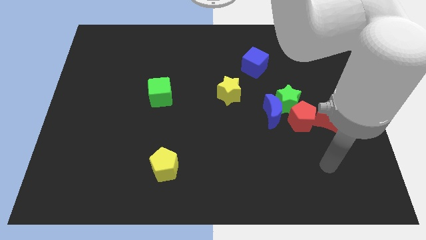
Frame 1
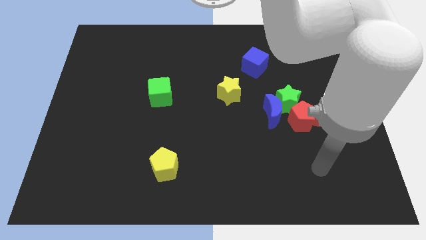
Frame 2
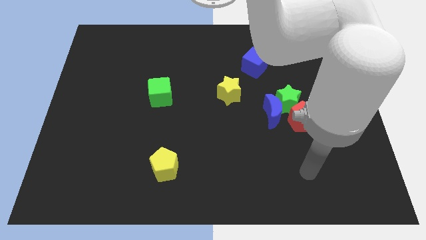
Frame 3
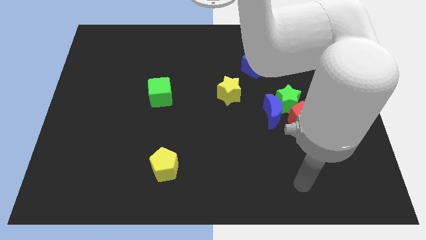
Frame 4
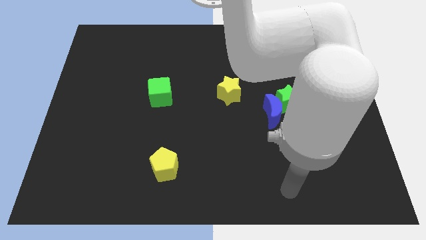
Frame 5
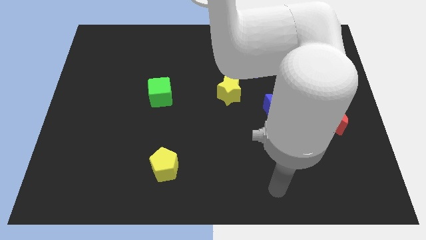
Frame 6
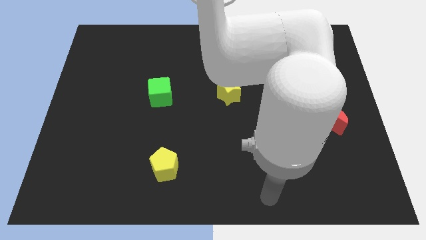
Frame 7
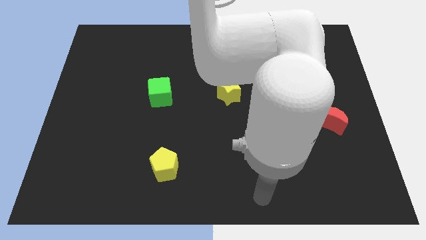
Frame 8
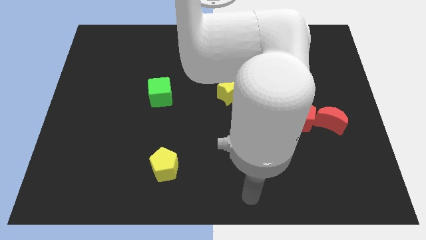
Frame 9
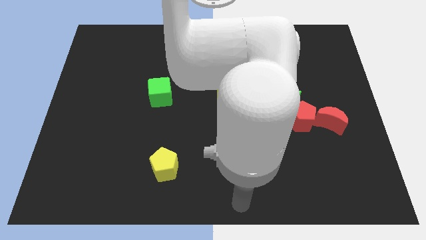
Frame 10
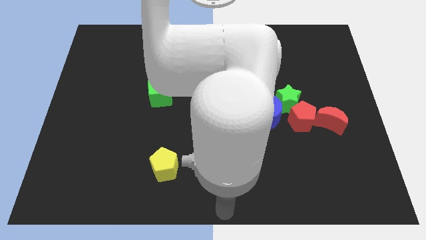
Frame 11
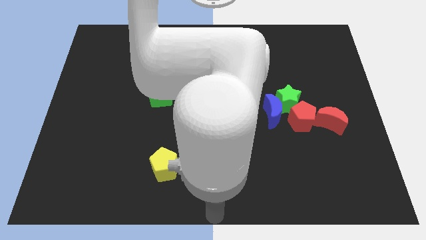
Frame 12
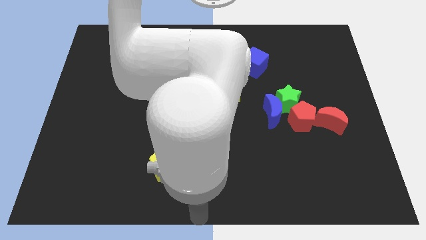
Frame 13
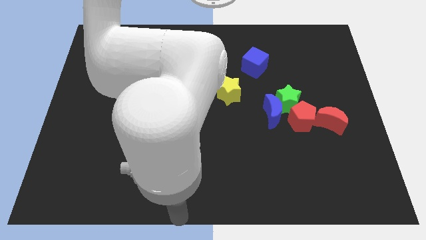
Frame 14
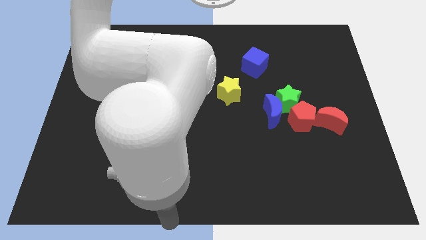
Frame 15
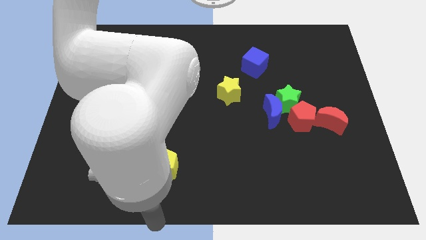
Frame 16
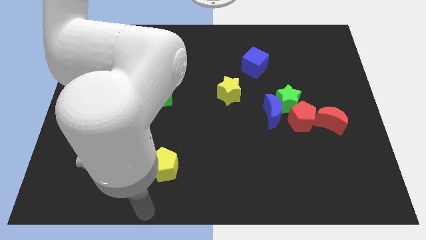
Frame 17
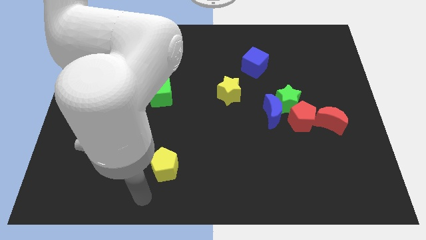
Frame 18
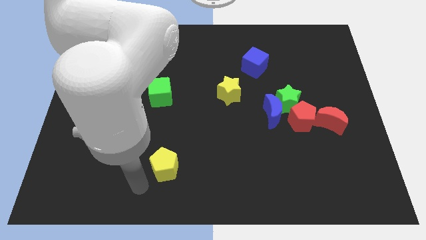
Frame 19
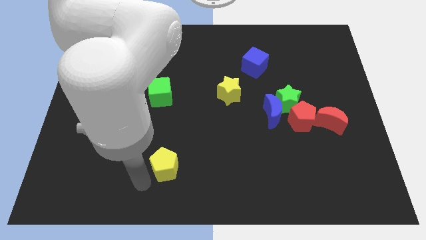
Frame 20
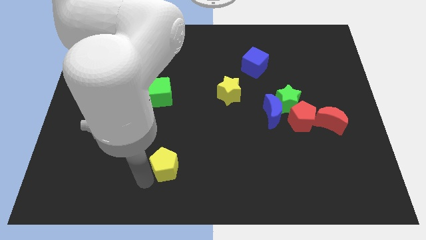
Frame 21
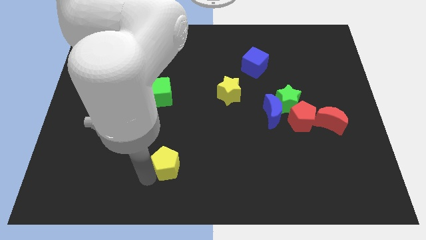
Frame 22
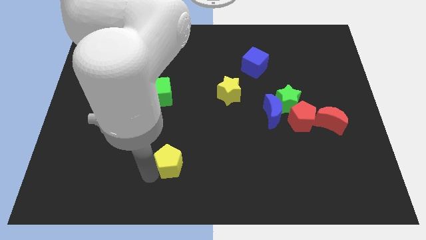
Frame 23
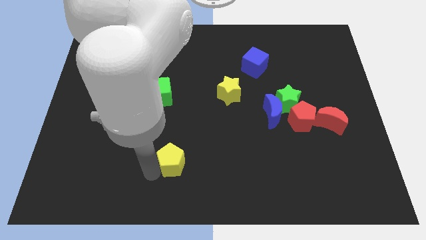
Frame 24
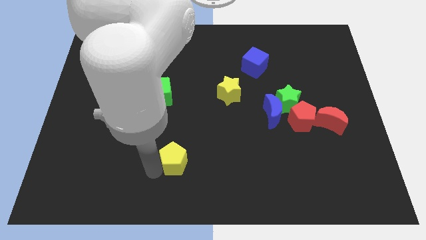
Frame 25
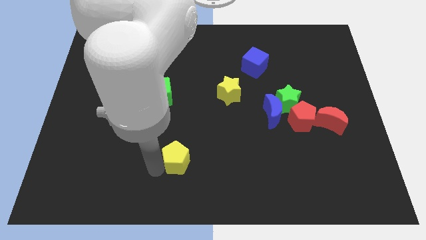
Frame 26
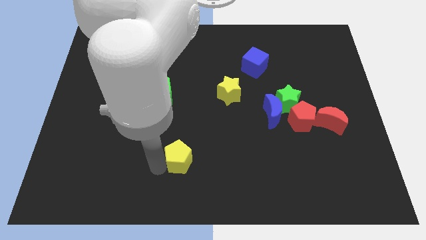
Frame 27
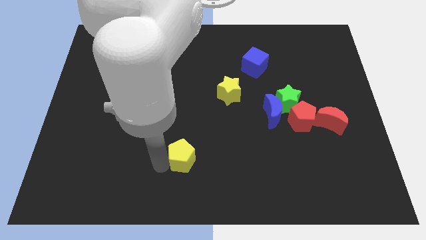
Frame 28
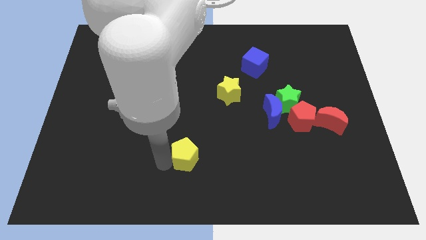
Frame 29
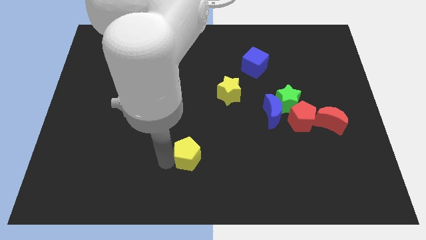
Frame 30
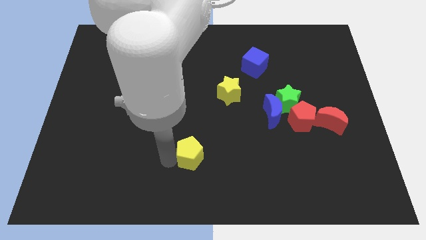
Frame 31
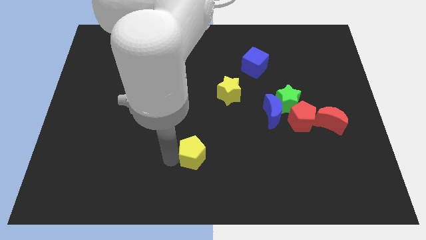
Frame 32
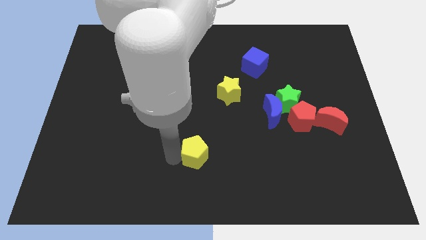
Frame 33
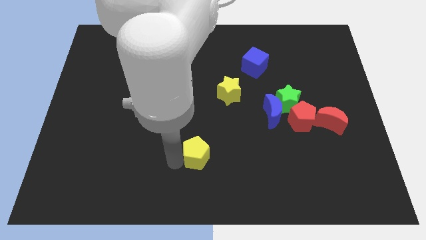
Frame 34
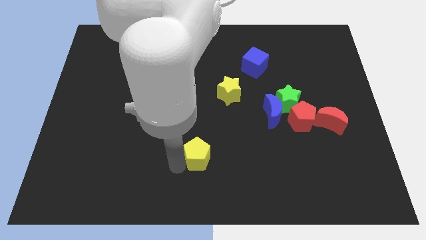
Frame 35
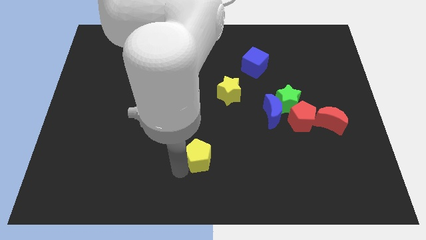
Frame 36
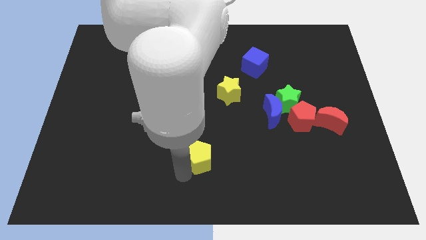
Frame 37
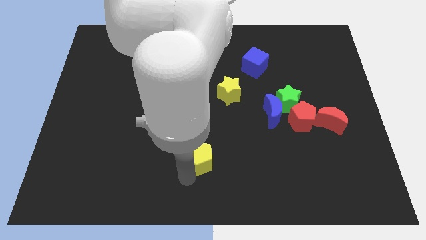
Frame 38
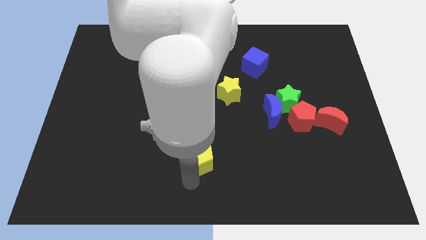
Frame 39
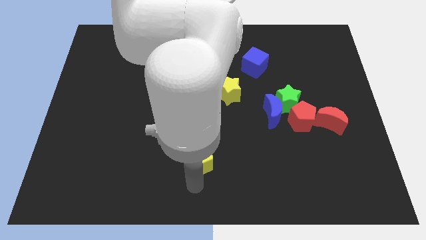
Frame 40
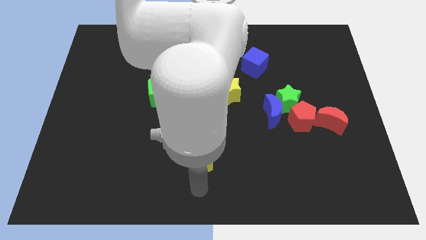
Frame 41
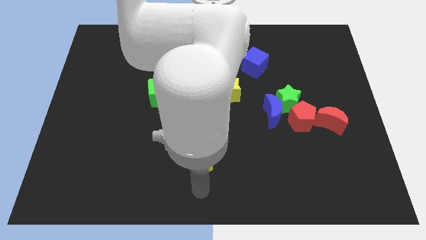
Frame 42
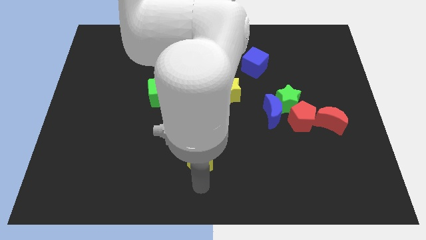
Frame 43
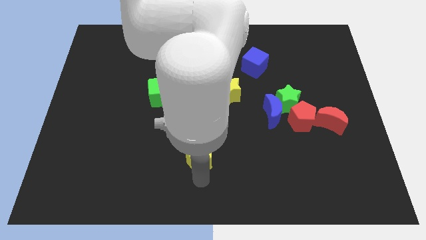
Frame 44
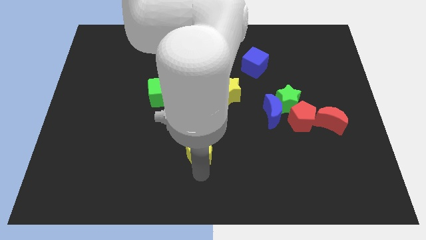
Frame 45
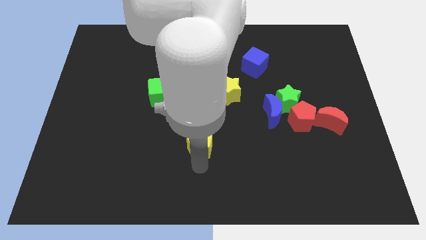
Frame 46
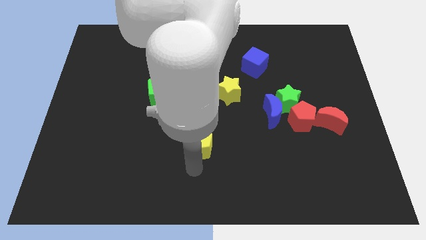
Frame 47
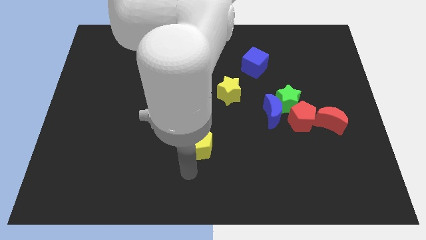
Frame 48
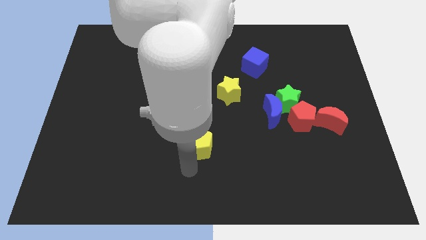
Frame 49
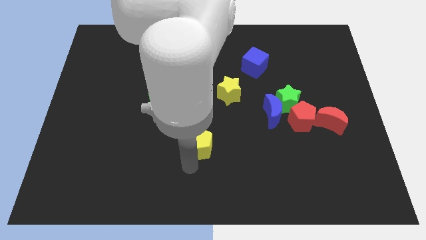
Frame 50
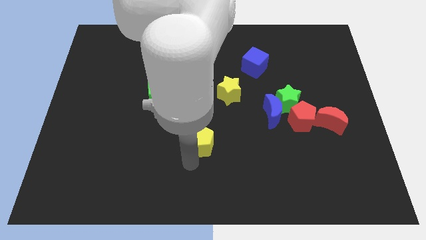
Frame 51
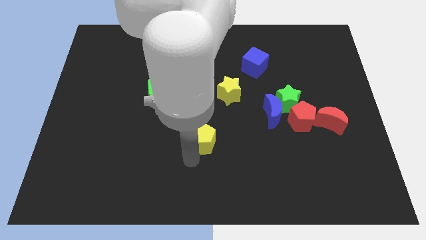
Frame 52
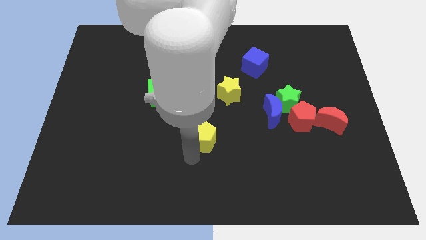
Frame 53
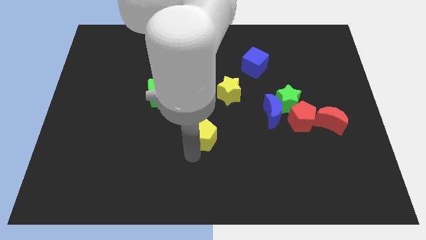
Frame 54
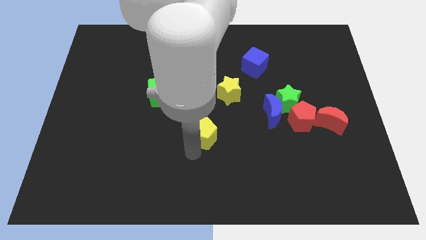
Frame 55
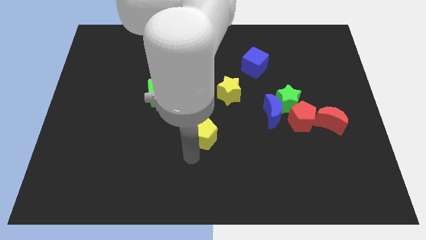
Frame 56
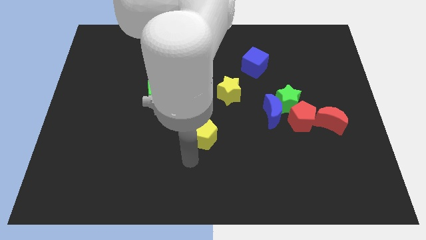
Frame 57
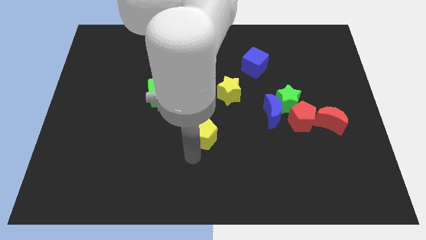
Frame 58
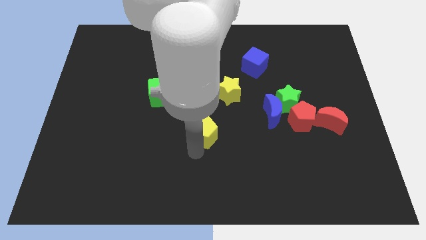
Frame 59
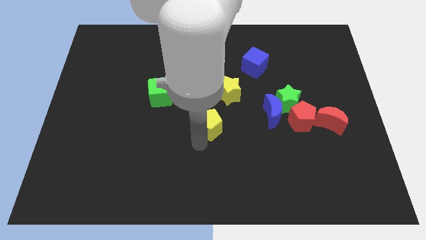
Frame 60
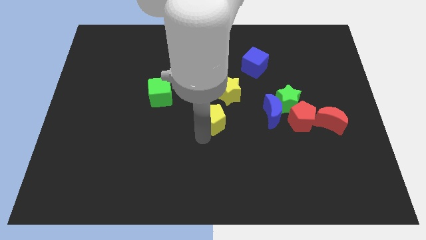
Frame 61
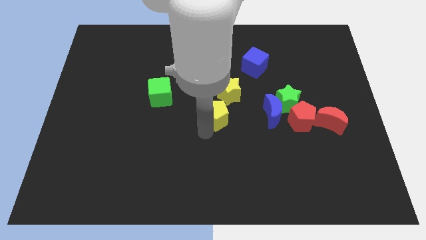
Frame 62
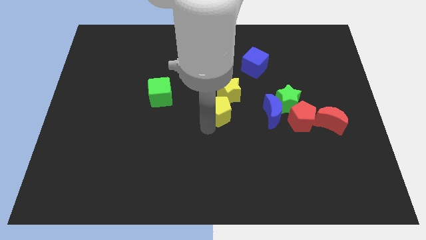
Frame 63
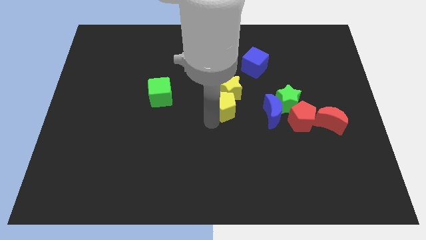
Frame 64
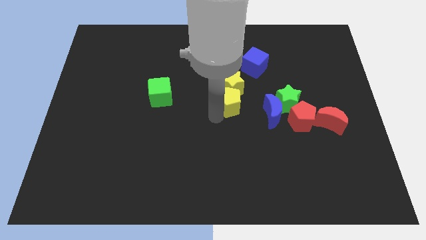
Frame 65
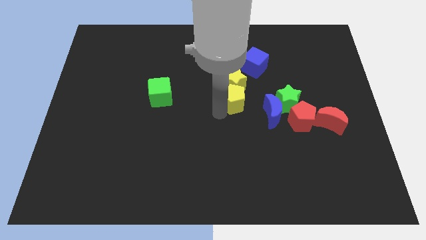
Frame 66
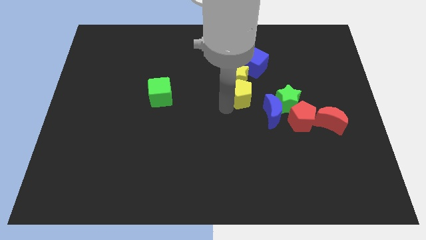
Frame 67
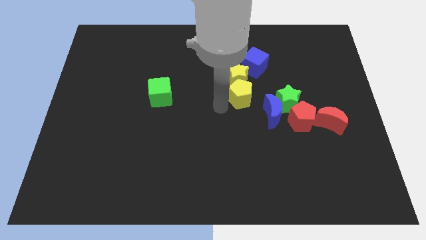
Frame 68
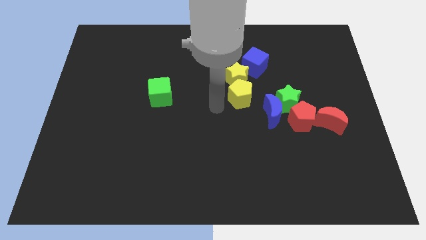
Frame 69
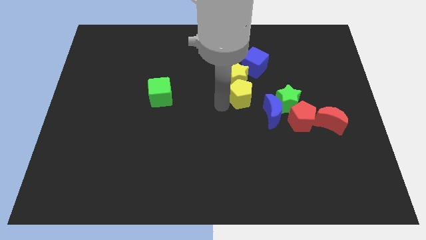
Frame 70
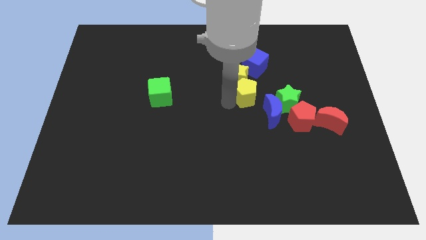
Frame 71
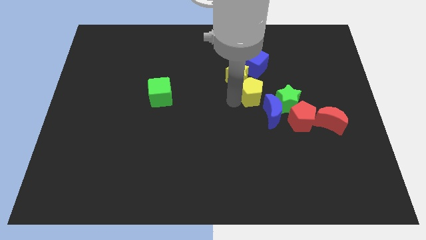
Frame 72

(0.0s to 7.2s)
move the yellow pentagon above the blue moon
